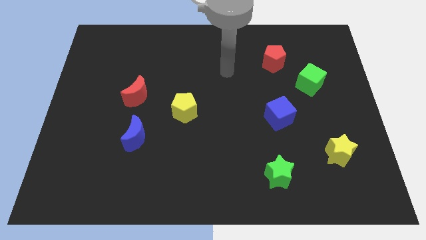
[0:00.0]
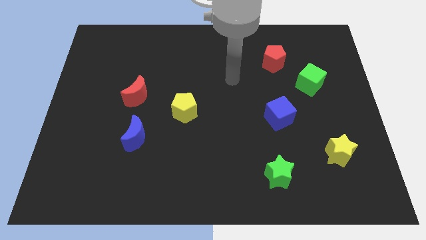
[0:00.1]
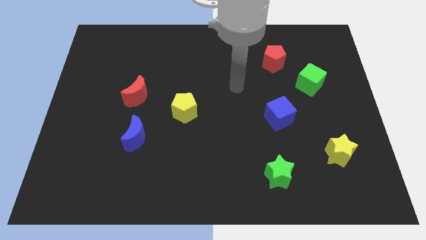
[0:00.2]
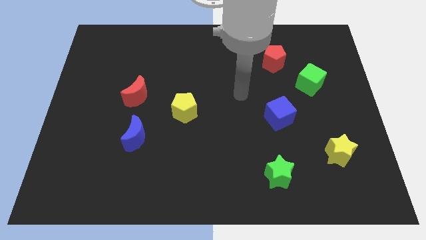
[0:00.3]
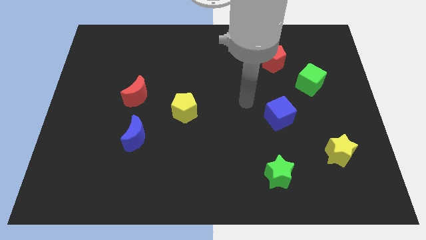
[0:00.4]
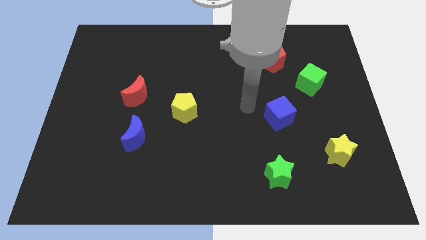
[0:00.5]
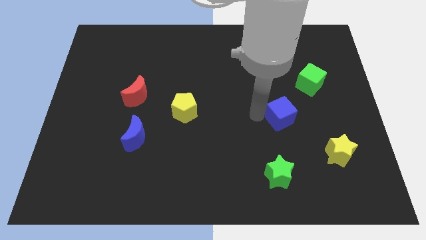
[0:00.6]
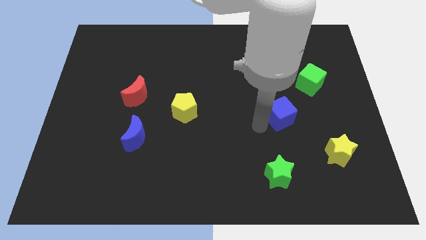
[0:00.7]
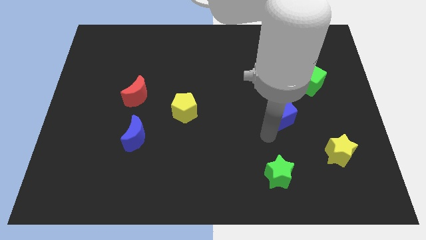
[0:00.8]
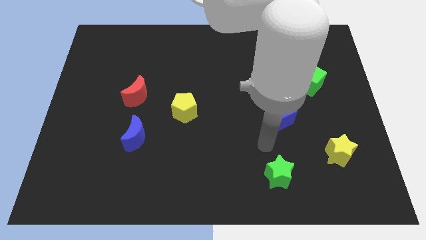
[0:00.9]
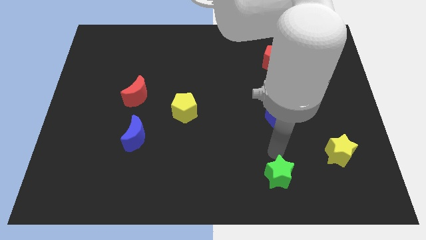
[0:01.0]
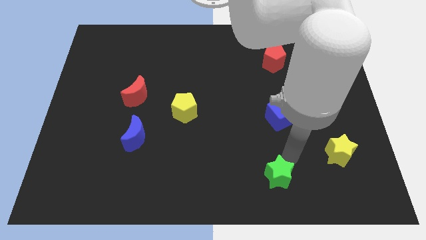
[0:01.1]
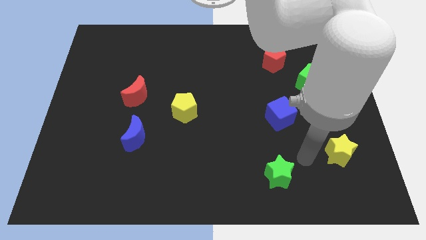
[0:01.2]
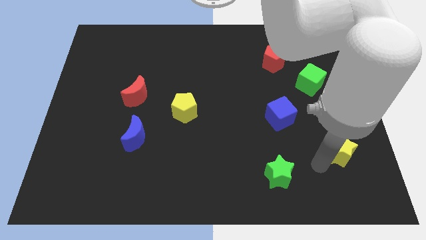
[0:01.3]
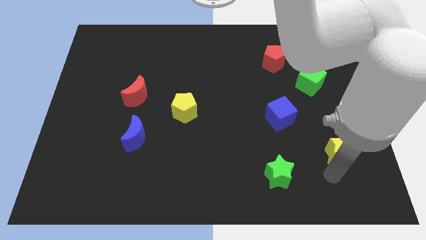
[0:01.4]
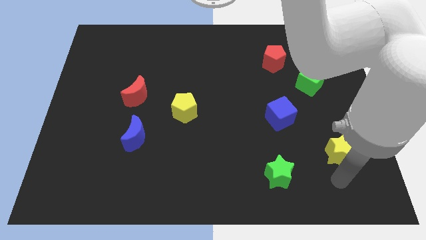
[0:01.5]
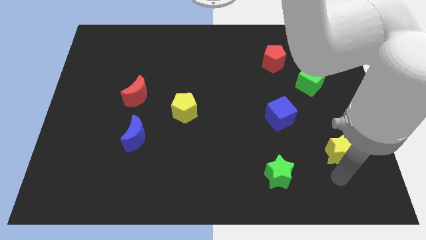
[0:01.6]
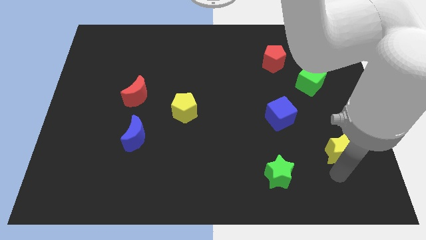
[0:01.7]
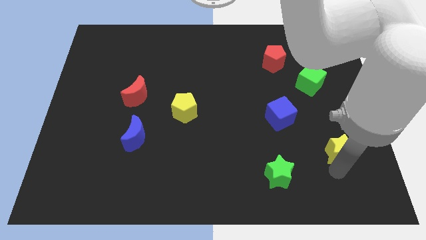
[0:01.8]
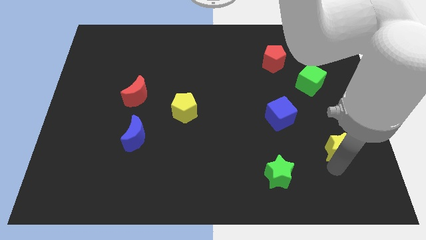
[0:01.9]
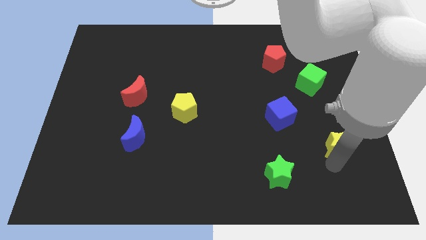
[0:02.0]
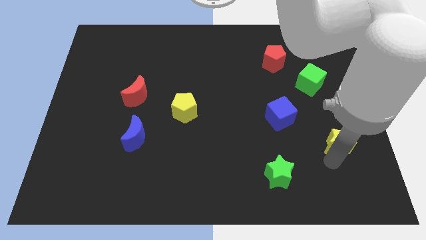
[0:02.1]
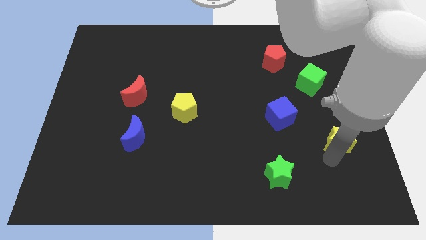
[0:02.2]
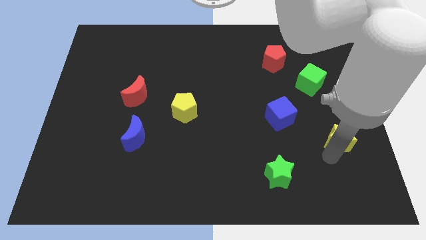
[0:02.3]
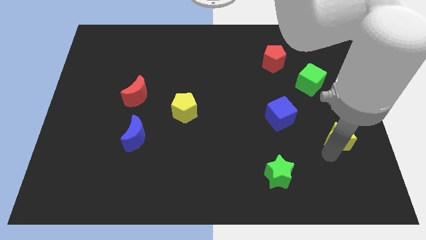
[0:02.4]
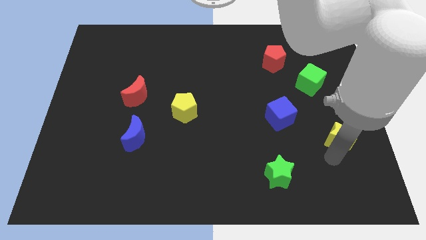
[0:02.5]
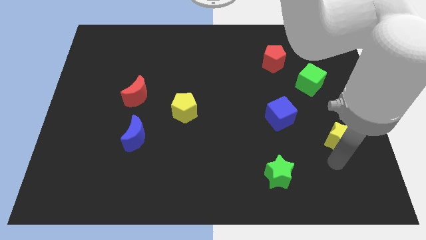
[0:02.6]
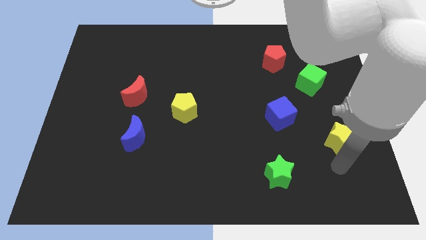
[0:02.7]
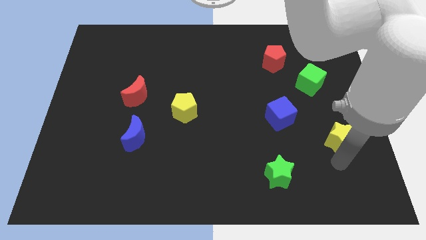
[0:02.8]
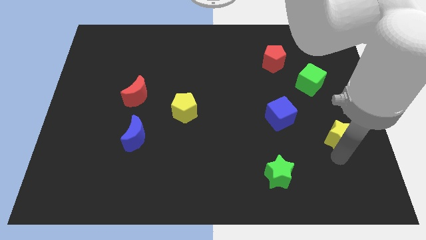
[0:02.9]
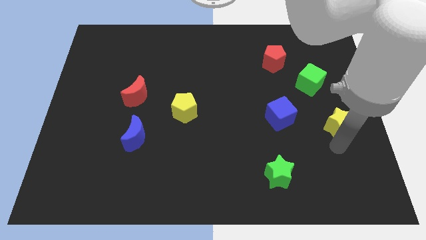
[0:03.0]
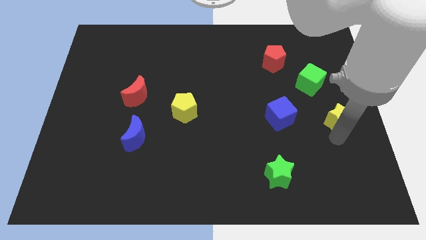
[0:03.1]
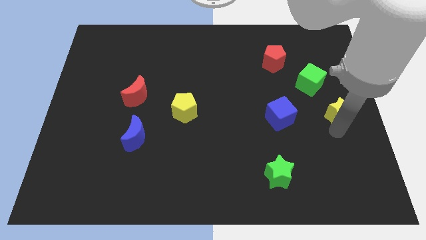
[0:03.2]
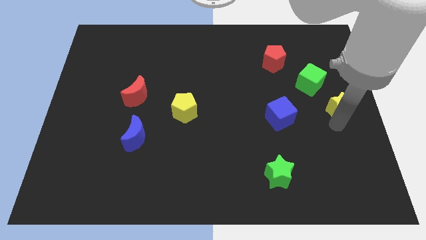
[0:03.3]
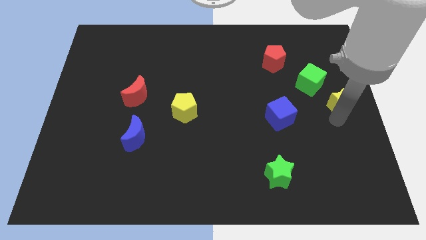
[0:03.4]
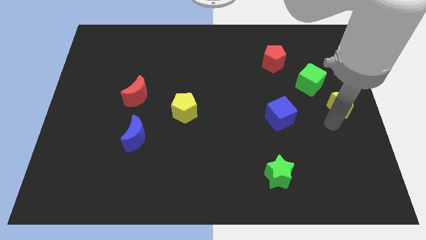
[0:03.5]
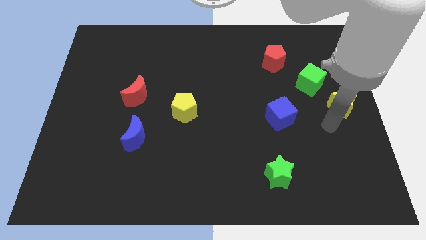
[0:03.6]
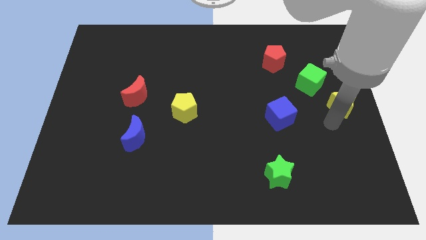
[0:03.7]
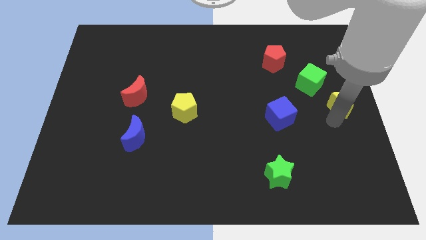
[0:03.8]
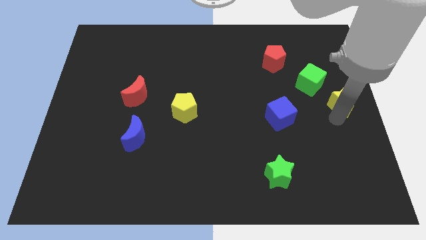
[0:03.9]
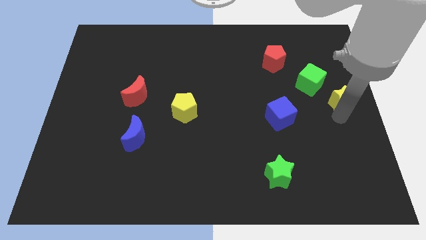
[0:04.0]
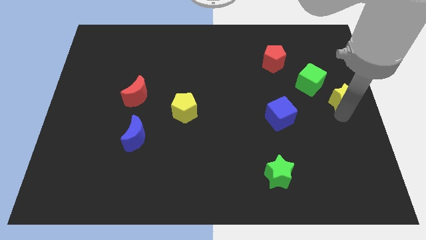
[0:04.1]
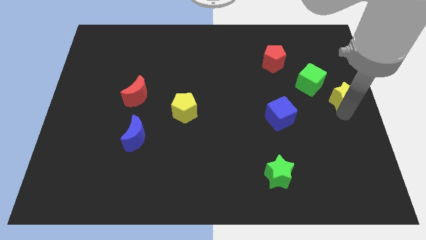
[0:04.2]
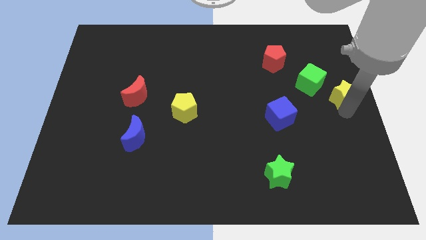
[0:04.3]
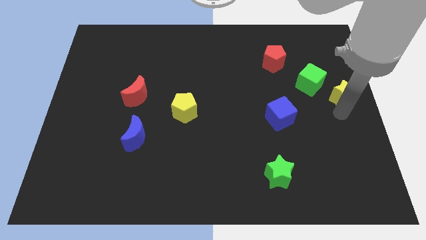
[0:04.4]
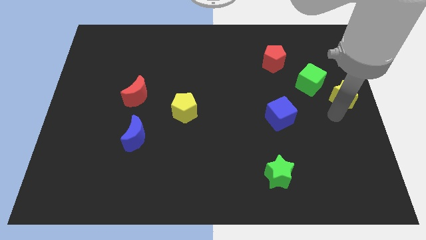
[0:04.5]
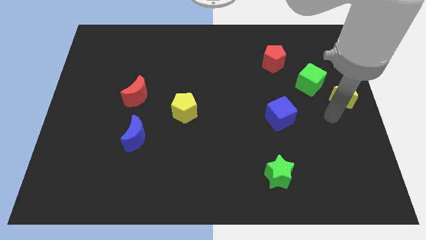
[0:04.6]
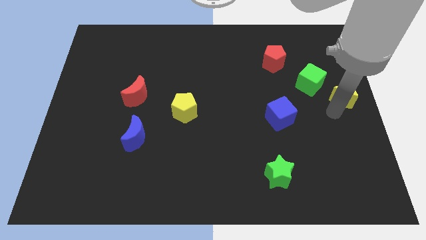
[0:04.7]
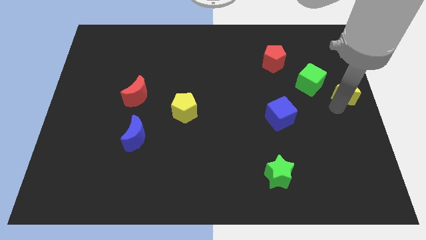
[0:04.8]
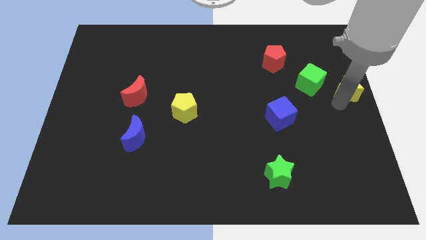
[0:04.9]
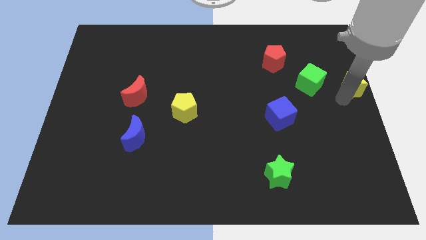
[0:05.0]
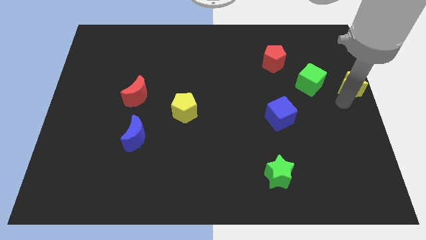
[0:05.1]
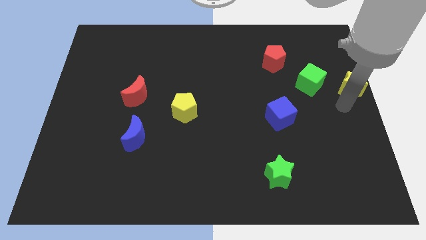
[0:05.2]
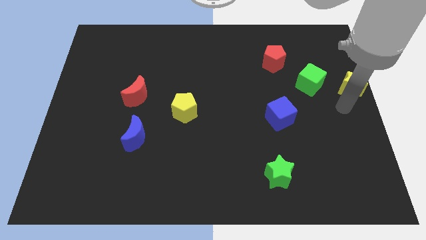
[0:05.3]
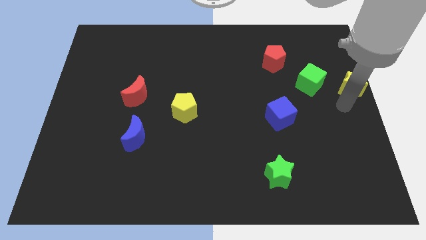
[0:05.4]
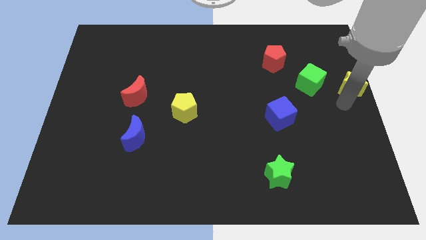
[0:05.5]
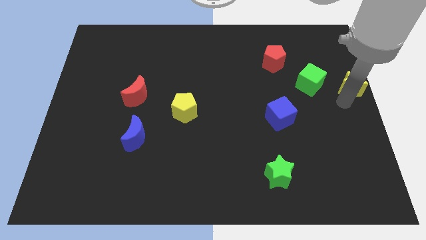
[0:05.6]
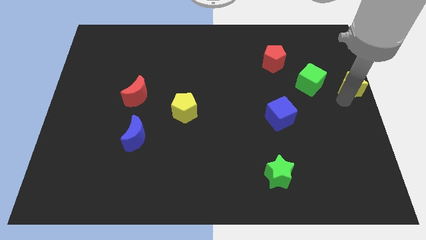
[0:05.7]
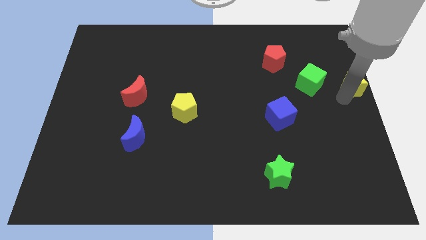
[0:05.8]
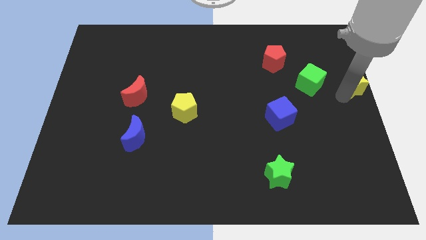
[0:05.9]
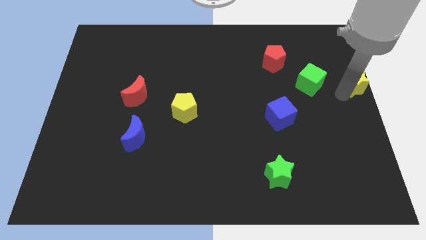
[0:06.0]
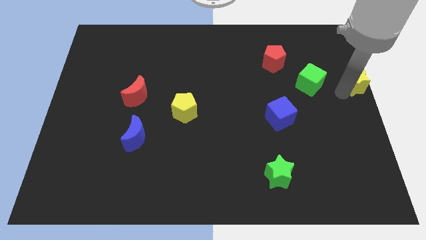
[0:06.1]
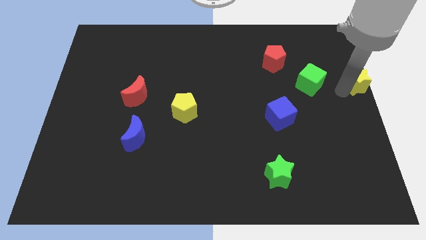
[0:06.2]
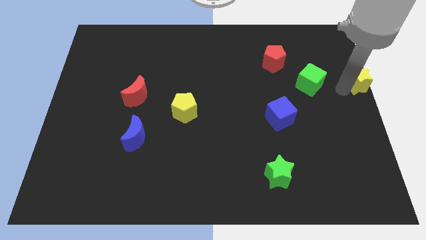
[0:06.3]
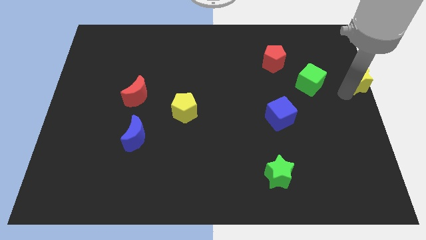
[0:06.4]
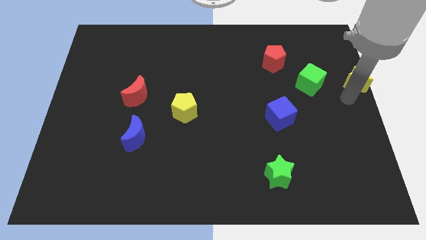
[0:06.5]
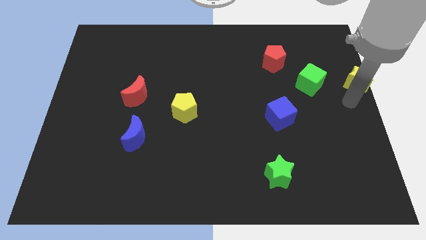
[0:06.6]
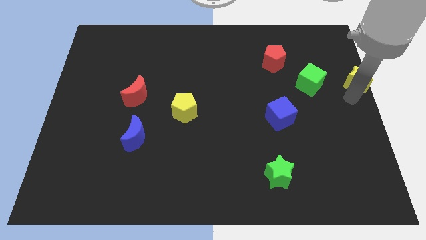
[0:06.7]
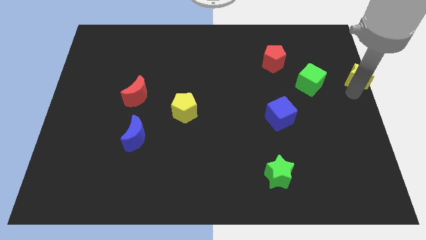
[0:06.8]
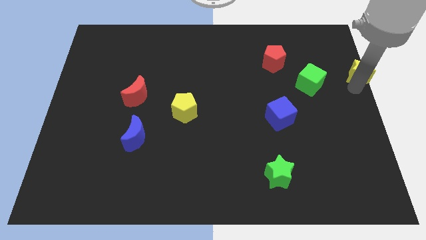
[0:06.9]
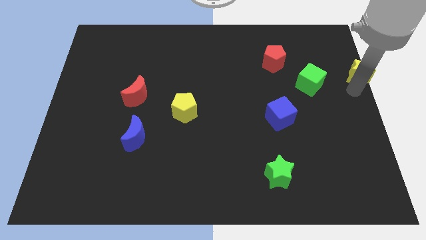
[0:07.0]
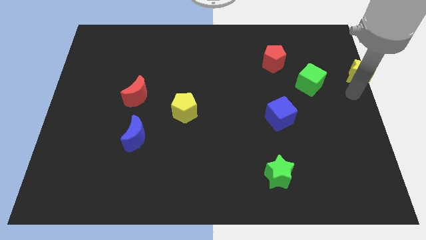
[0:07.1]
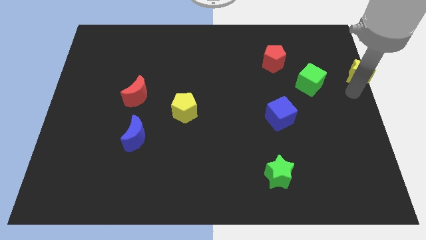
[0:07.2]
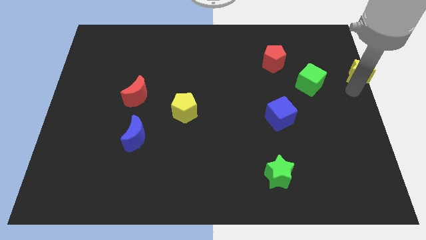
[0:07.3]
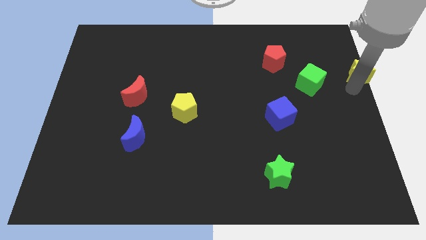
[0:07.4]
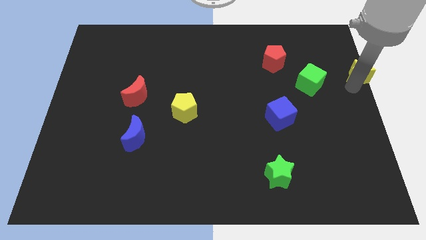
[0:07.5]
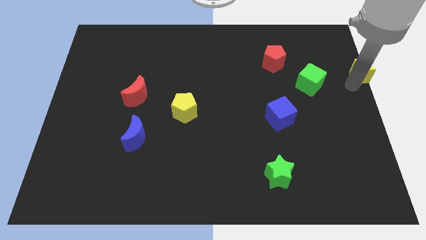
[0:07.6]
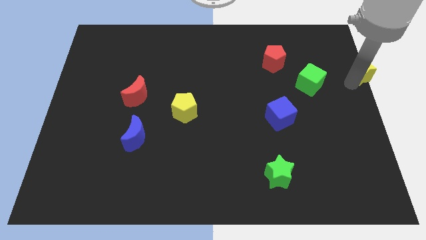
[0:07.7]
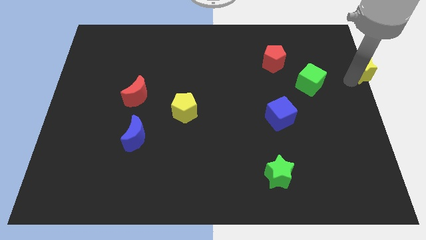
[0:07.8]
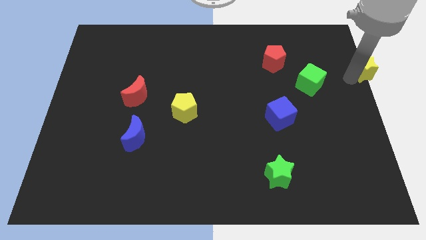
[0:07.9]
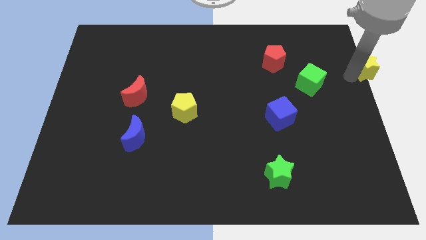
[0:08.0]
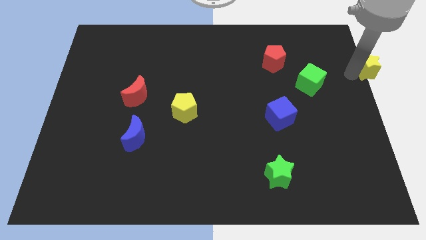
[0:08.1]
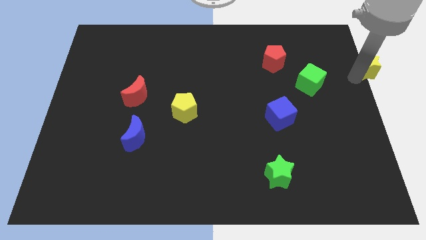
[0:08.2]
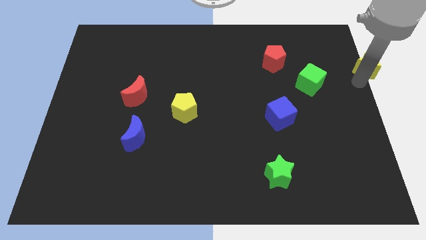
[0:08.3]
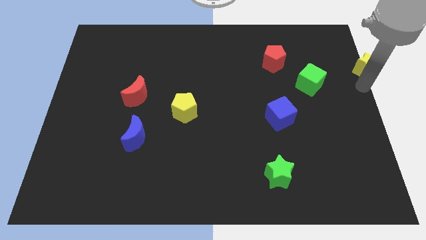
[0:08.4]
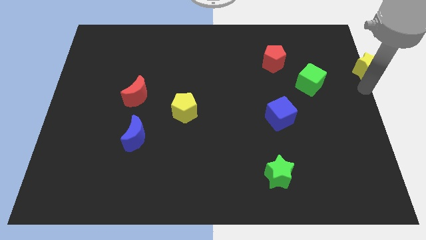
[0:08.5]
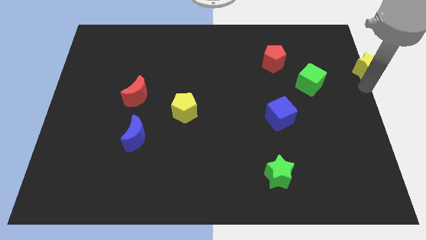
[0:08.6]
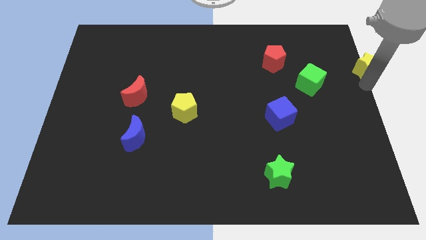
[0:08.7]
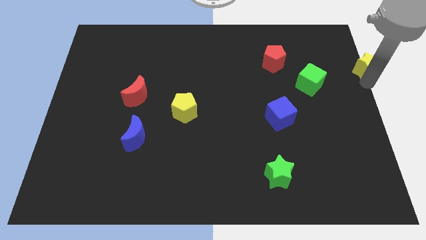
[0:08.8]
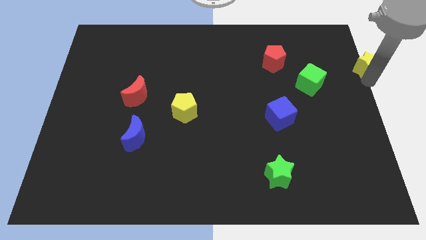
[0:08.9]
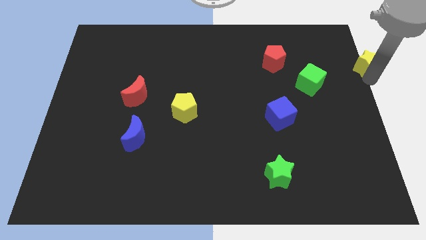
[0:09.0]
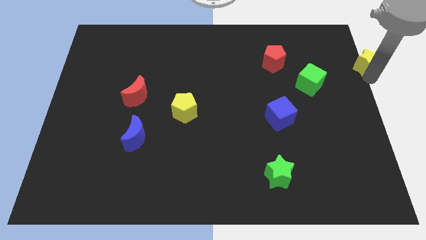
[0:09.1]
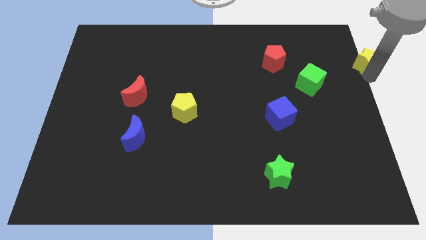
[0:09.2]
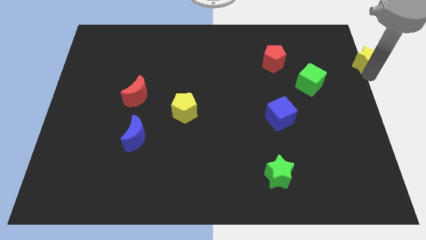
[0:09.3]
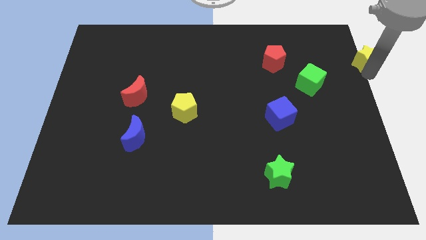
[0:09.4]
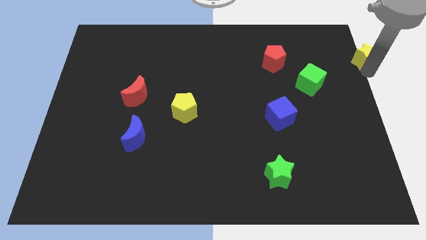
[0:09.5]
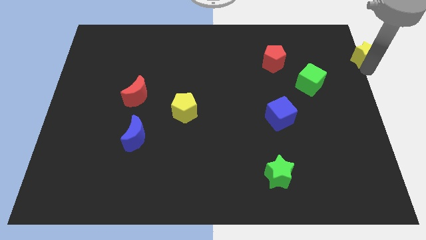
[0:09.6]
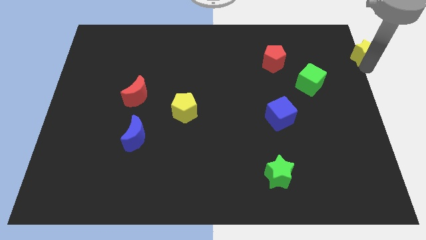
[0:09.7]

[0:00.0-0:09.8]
slide the yellow star to the top right
